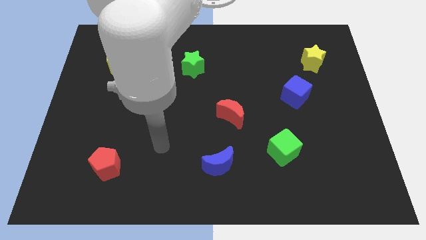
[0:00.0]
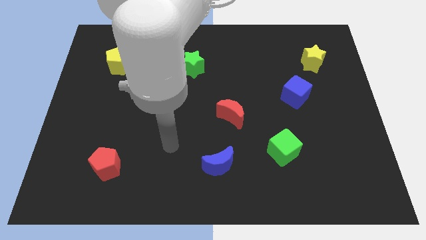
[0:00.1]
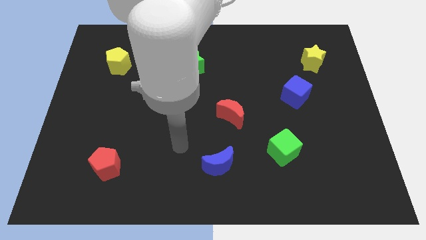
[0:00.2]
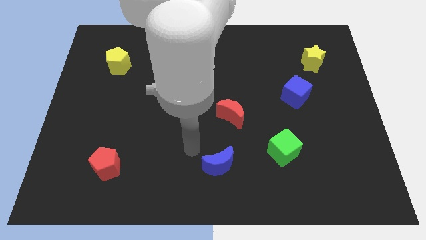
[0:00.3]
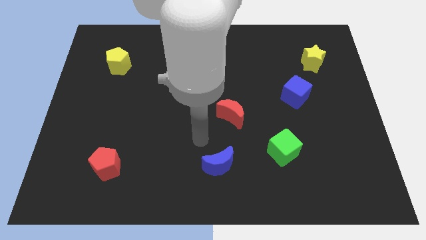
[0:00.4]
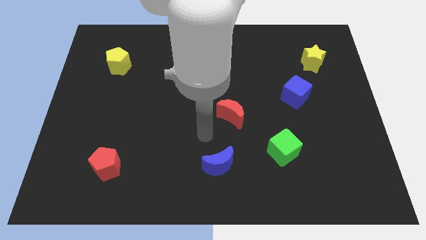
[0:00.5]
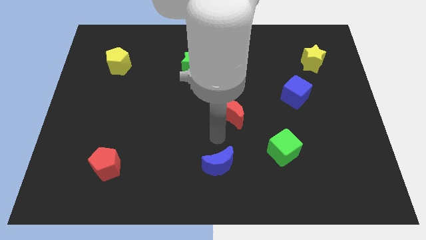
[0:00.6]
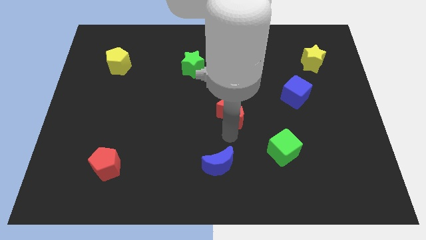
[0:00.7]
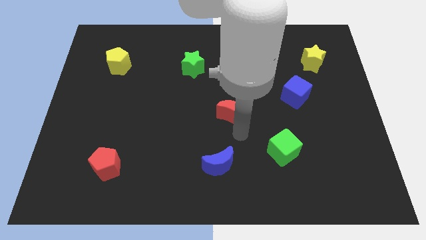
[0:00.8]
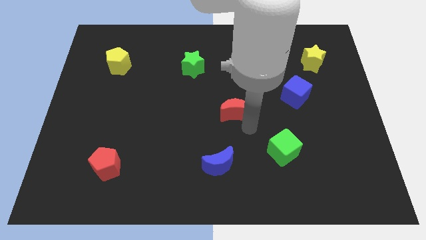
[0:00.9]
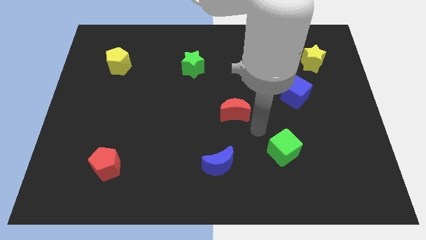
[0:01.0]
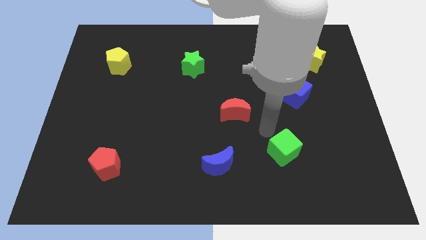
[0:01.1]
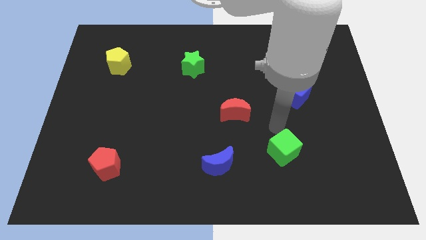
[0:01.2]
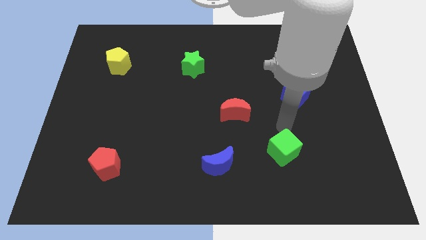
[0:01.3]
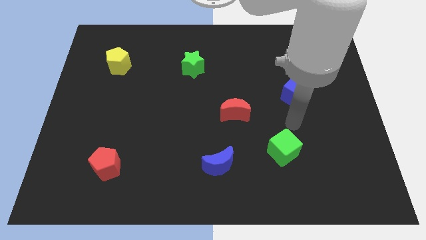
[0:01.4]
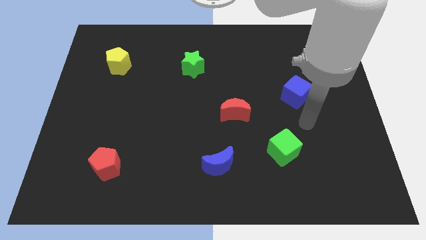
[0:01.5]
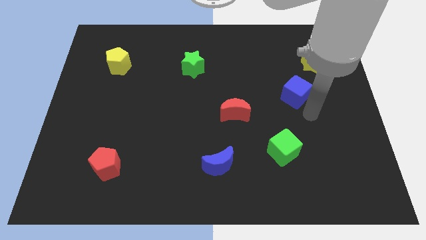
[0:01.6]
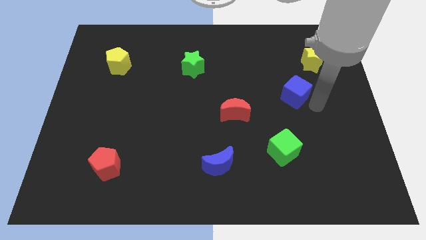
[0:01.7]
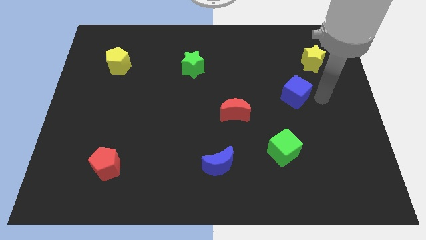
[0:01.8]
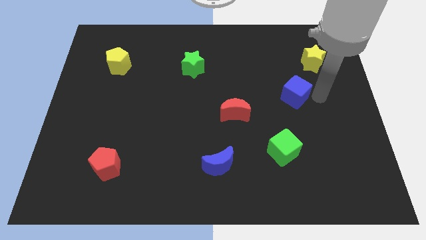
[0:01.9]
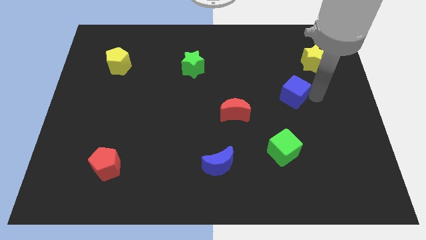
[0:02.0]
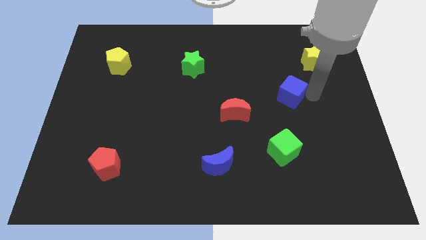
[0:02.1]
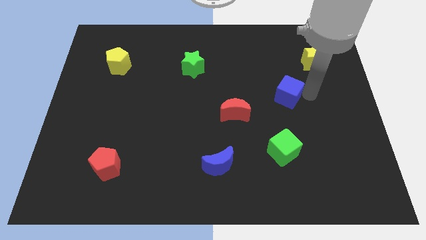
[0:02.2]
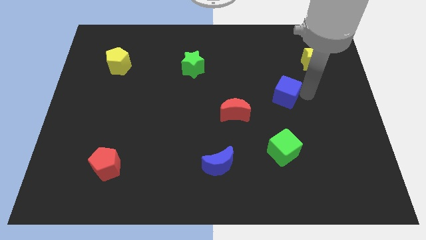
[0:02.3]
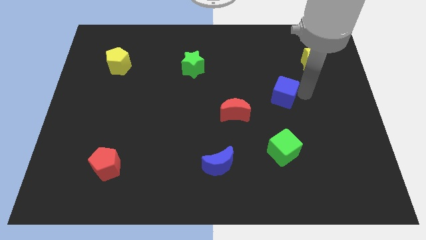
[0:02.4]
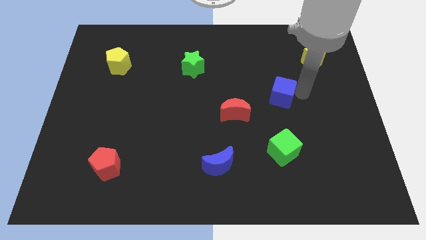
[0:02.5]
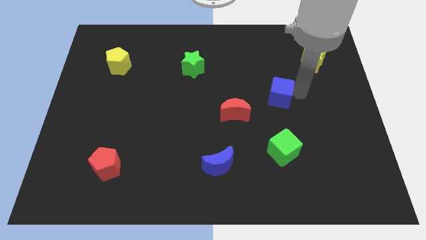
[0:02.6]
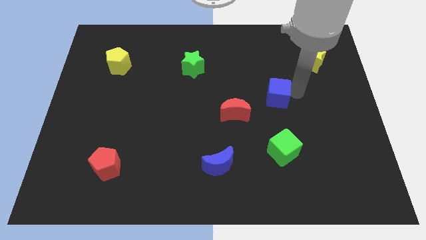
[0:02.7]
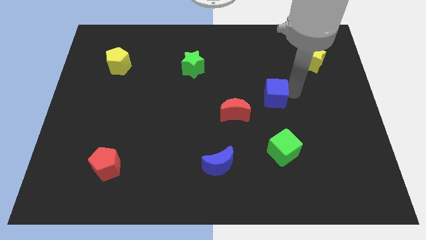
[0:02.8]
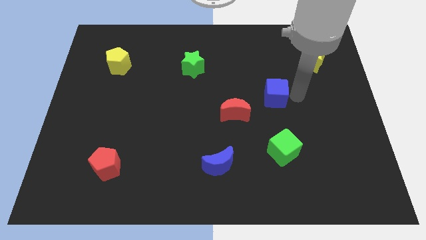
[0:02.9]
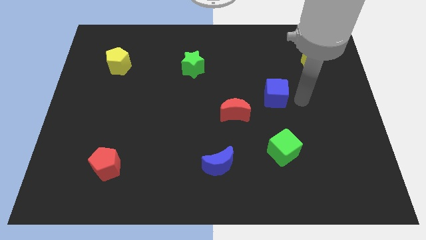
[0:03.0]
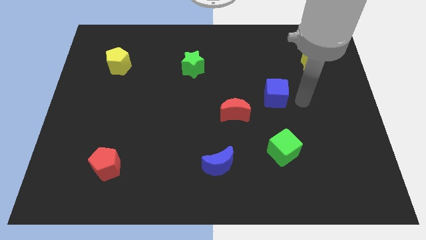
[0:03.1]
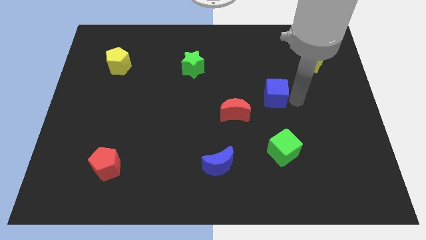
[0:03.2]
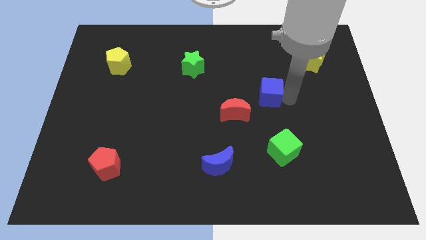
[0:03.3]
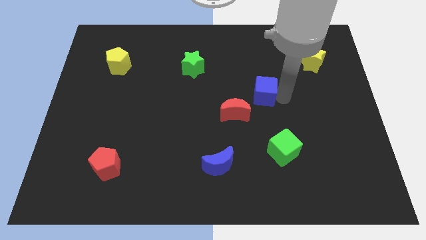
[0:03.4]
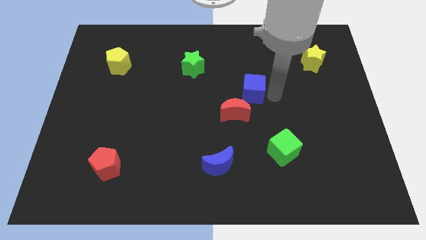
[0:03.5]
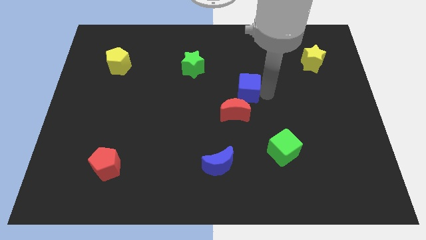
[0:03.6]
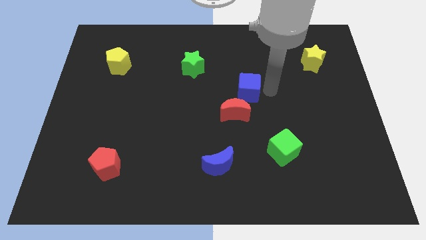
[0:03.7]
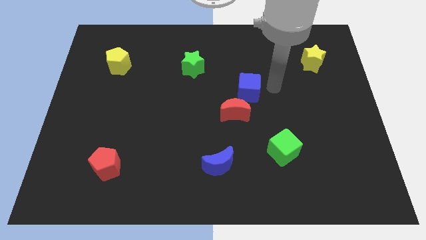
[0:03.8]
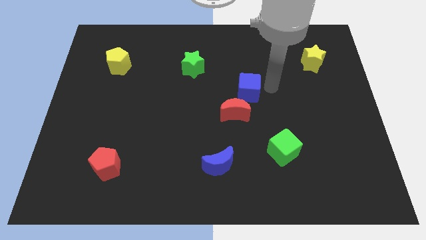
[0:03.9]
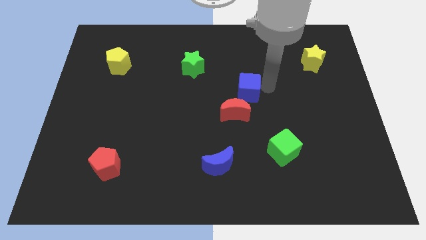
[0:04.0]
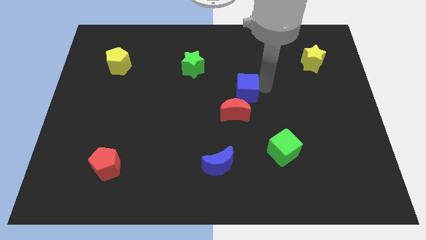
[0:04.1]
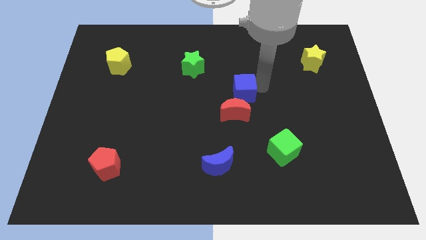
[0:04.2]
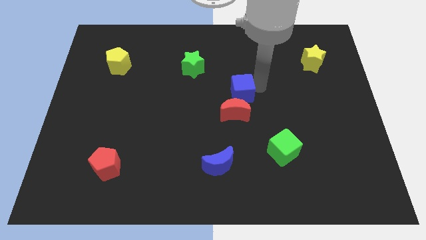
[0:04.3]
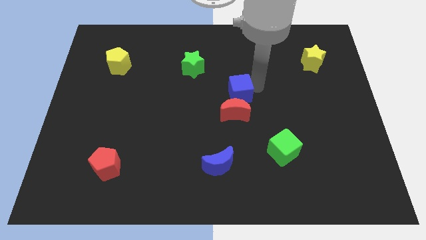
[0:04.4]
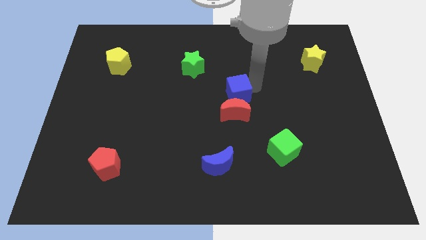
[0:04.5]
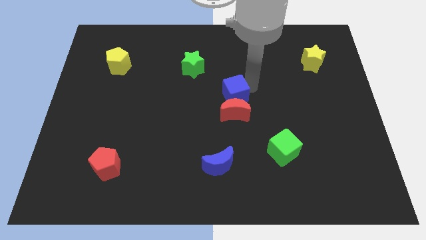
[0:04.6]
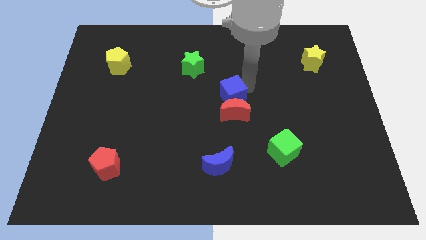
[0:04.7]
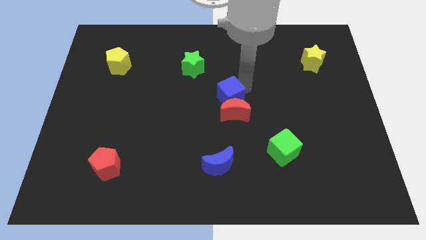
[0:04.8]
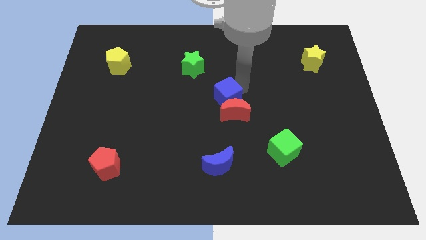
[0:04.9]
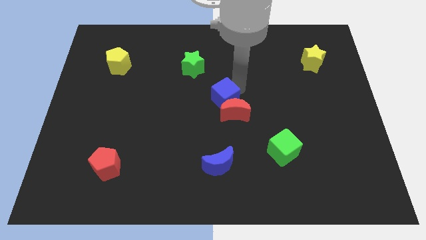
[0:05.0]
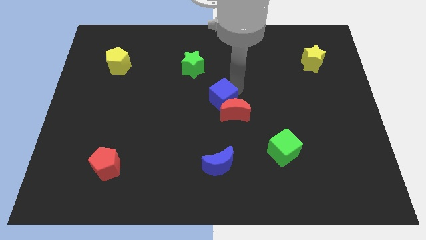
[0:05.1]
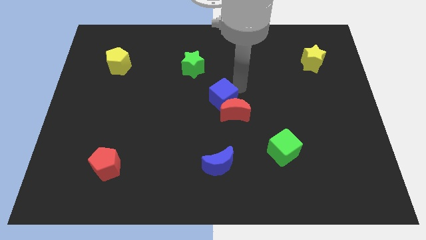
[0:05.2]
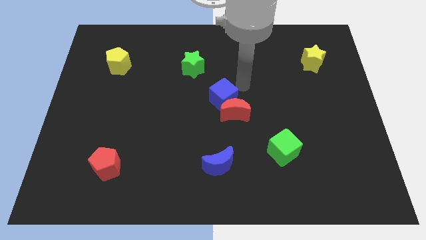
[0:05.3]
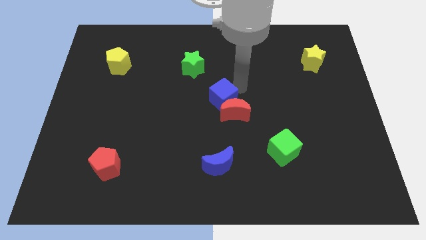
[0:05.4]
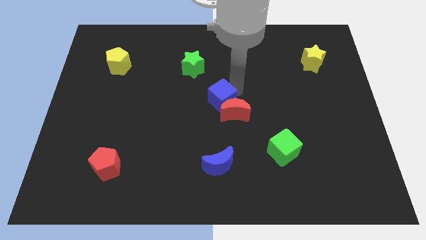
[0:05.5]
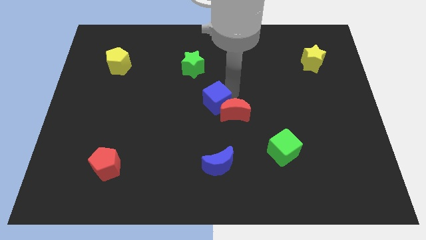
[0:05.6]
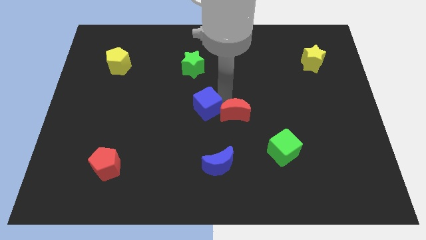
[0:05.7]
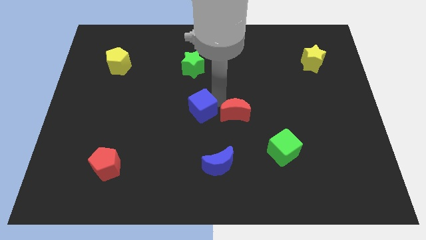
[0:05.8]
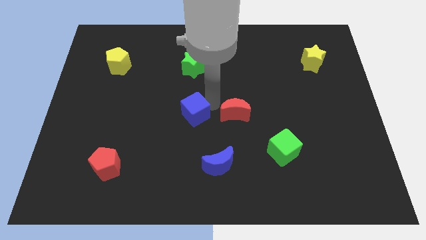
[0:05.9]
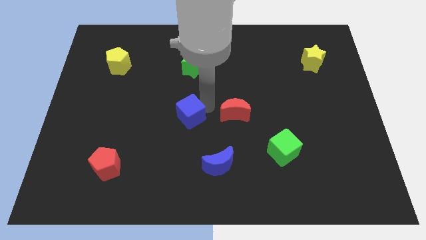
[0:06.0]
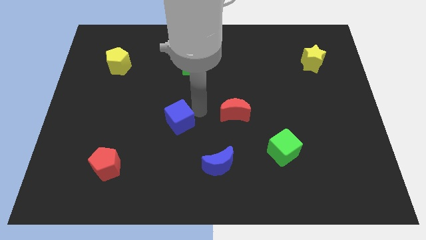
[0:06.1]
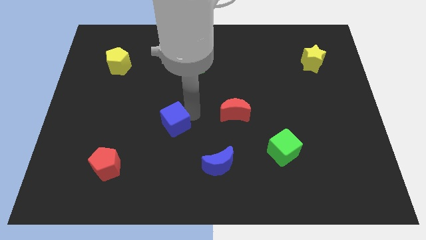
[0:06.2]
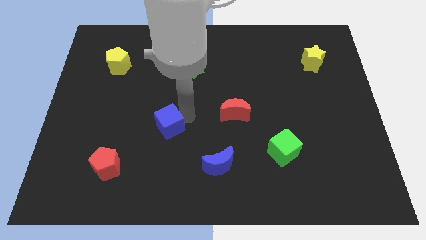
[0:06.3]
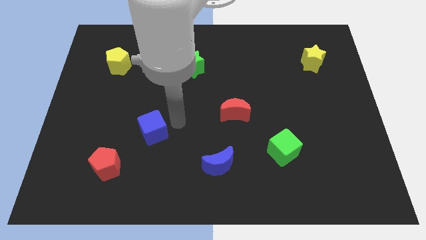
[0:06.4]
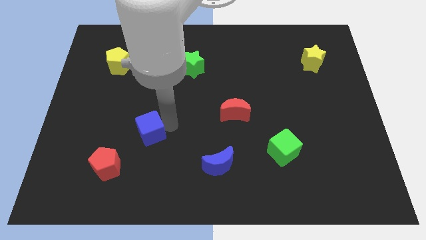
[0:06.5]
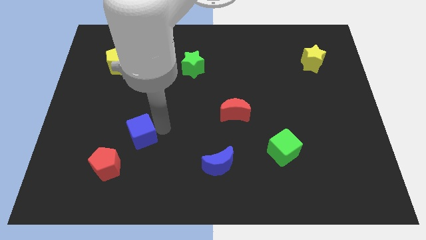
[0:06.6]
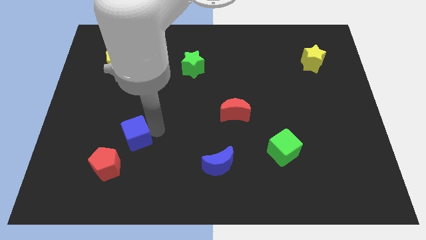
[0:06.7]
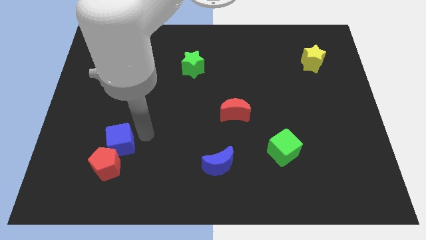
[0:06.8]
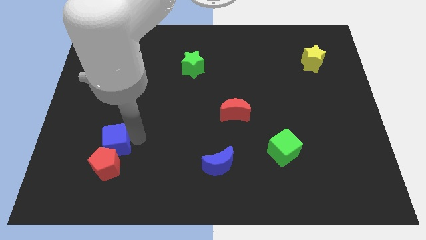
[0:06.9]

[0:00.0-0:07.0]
push the blue cube to the top left of the red pentagon

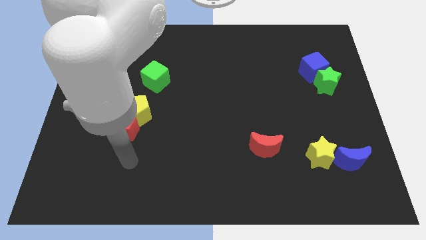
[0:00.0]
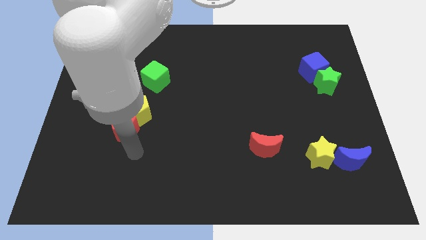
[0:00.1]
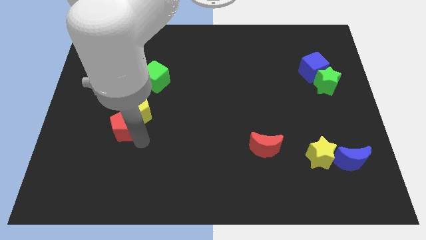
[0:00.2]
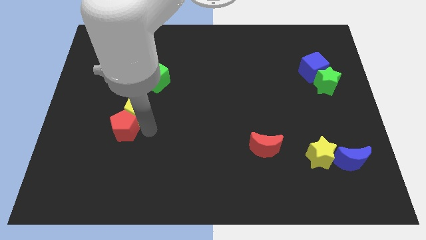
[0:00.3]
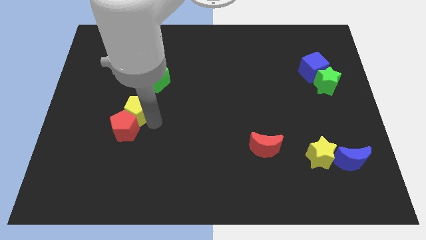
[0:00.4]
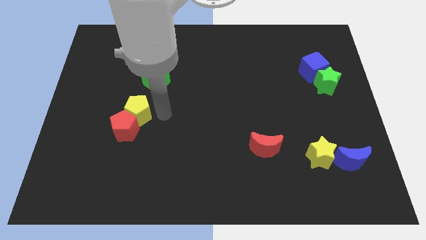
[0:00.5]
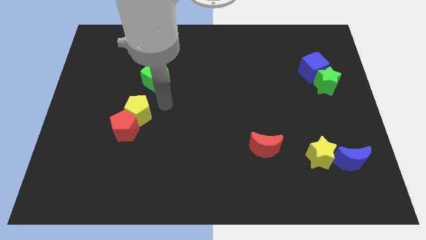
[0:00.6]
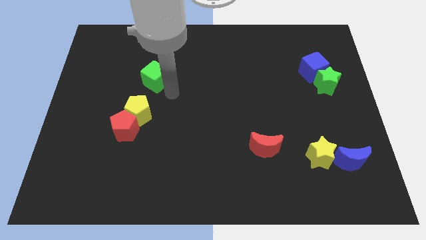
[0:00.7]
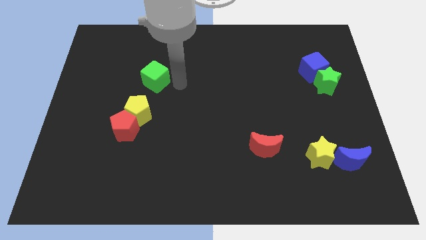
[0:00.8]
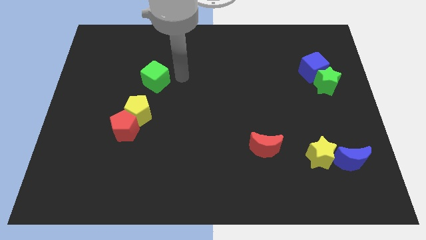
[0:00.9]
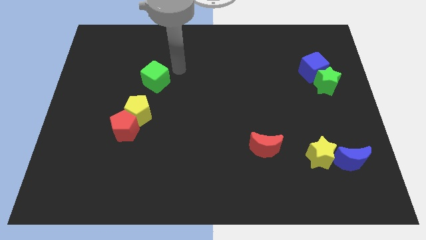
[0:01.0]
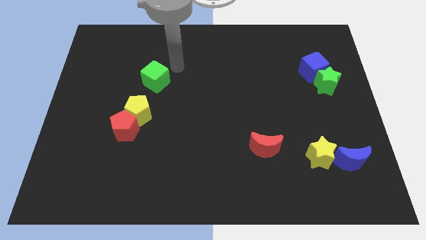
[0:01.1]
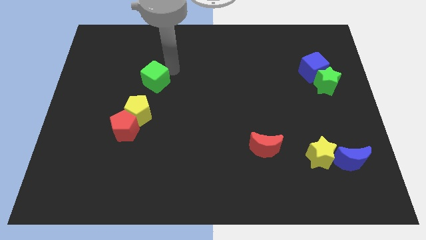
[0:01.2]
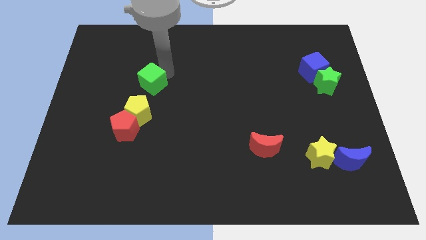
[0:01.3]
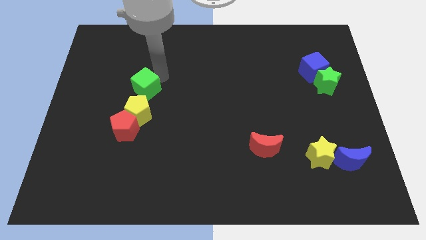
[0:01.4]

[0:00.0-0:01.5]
push the green cube above the red pentagon
